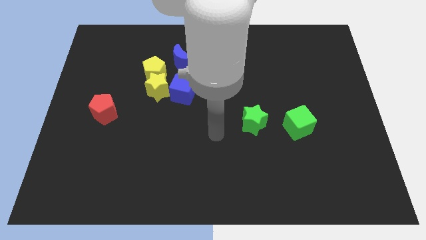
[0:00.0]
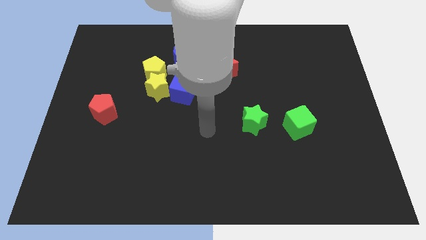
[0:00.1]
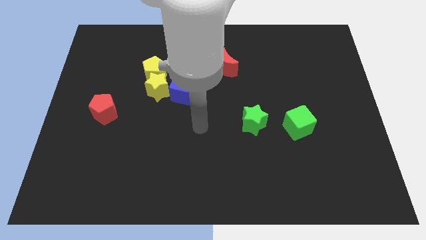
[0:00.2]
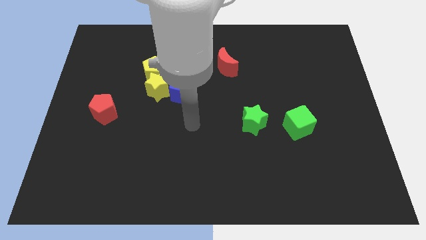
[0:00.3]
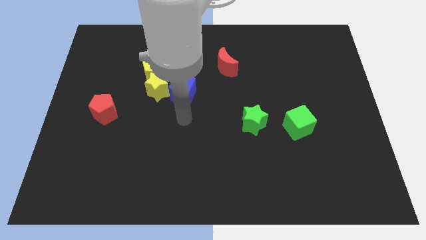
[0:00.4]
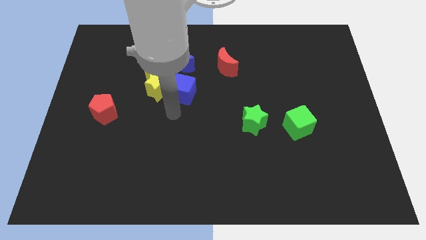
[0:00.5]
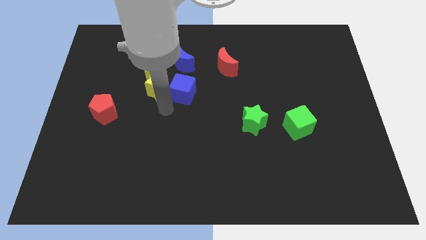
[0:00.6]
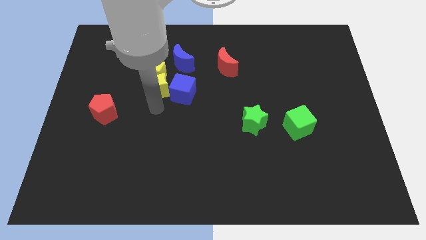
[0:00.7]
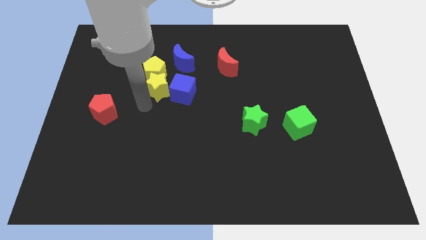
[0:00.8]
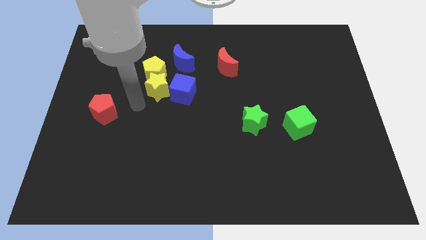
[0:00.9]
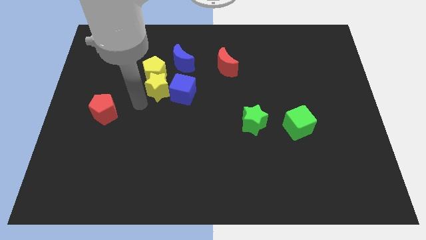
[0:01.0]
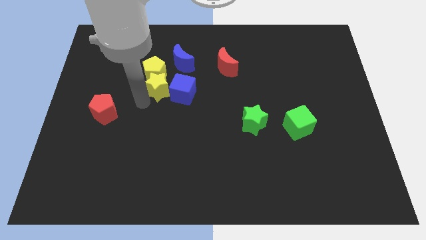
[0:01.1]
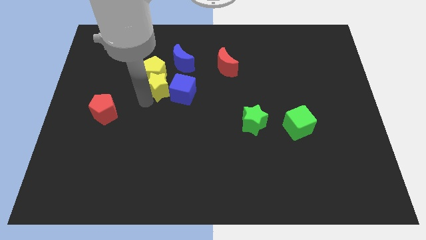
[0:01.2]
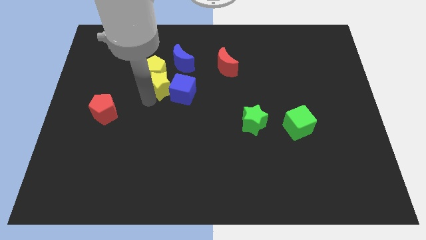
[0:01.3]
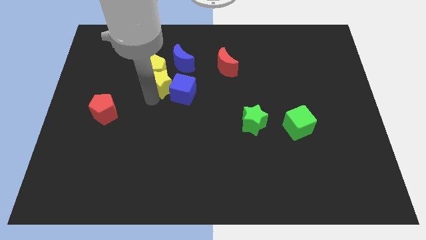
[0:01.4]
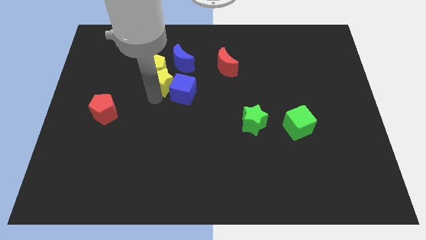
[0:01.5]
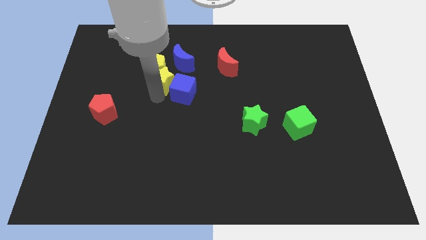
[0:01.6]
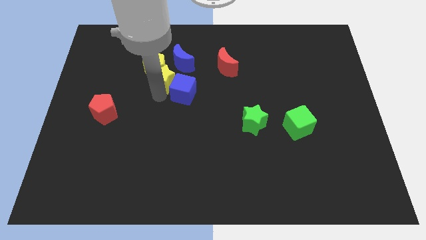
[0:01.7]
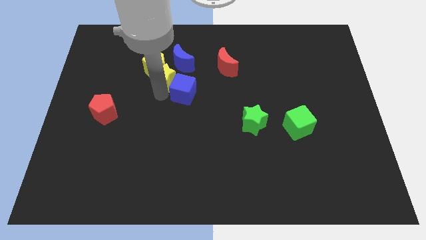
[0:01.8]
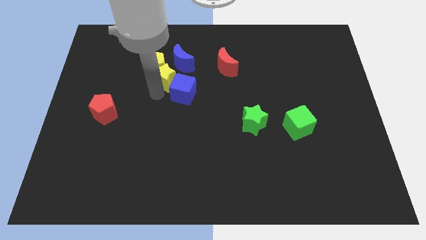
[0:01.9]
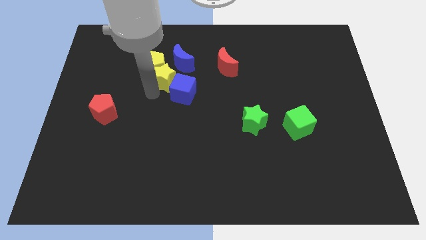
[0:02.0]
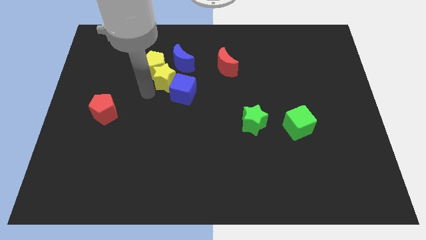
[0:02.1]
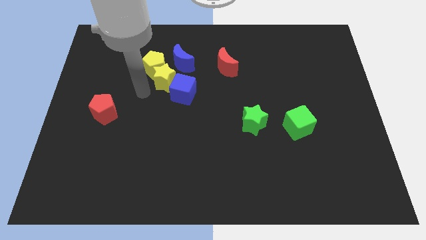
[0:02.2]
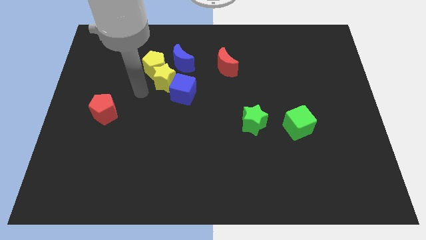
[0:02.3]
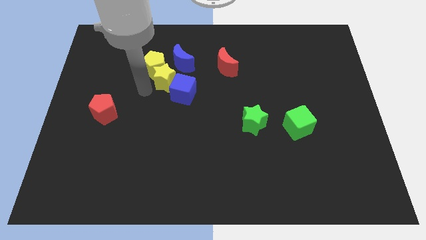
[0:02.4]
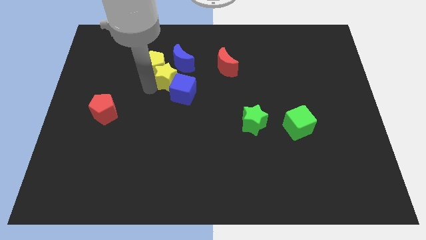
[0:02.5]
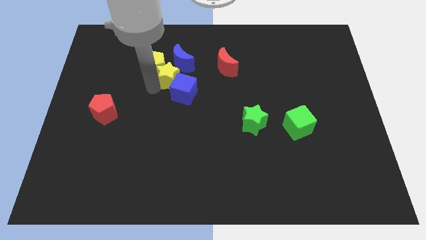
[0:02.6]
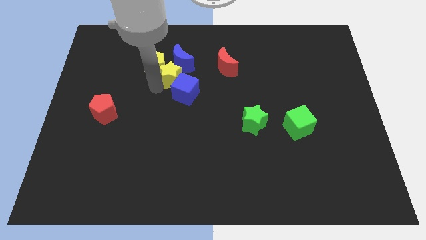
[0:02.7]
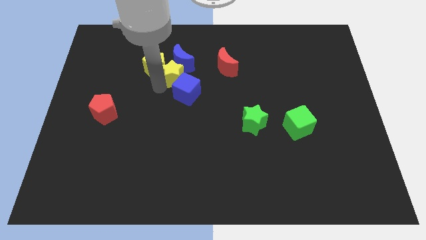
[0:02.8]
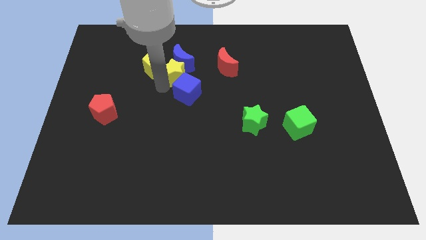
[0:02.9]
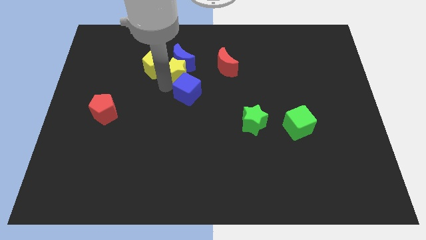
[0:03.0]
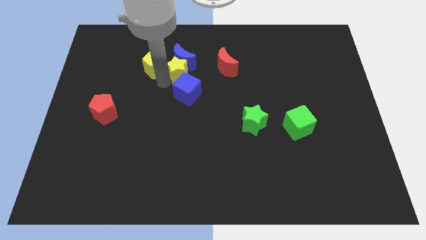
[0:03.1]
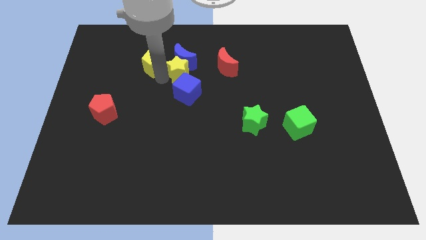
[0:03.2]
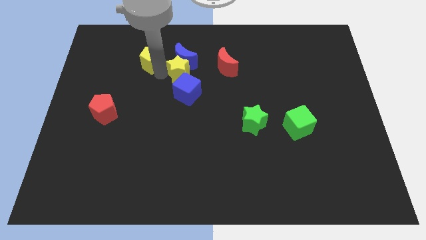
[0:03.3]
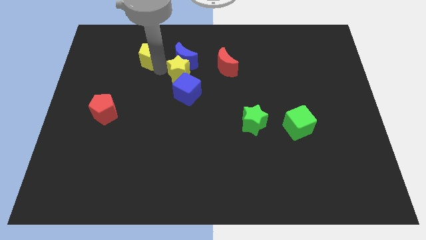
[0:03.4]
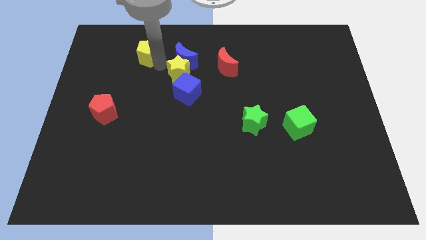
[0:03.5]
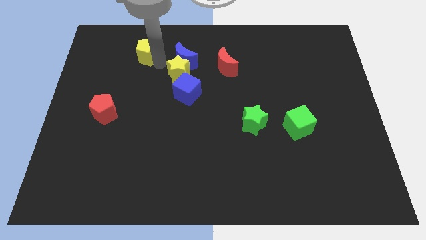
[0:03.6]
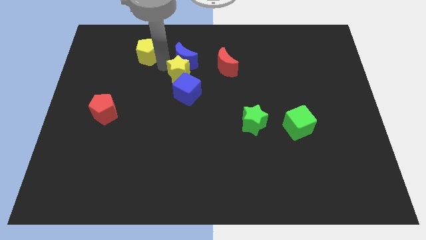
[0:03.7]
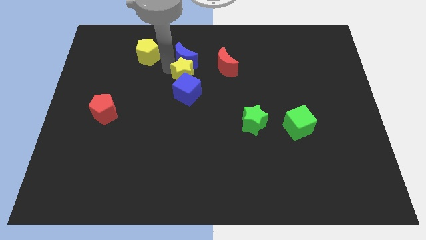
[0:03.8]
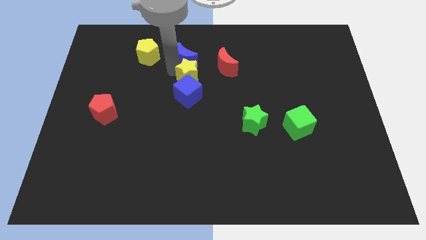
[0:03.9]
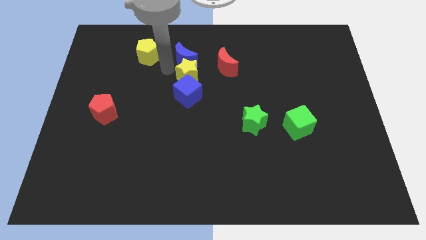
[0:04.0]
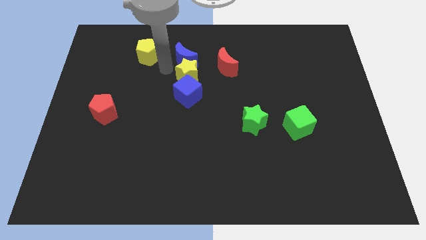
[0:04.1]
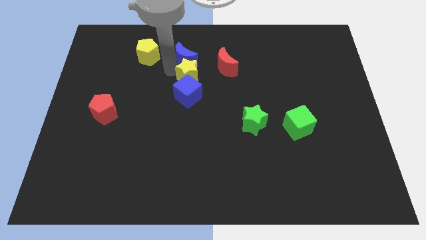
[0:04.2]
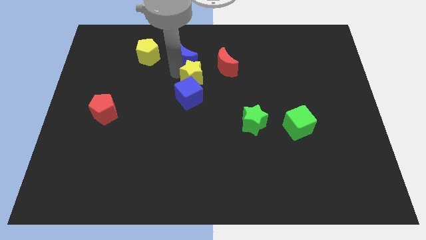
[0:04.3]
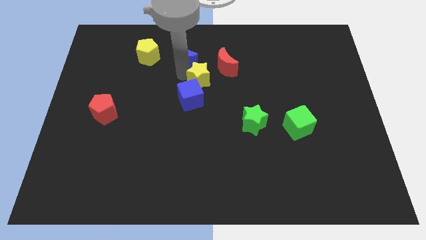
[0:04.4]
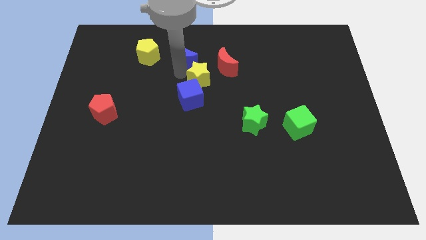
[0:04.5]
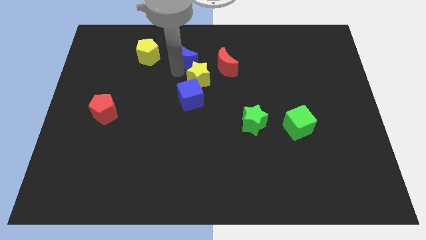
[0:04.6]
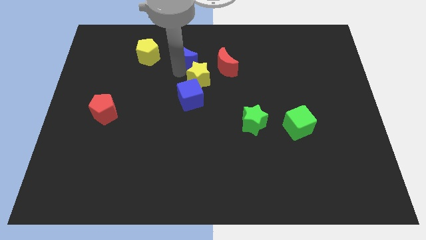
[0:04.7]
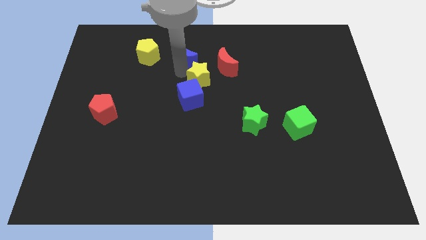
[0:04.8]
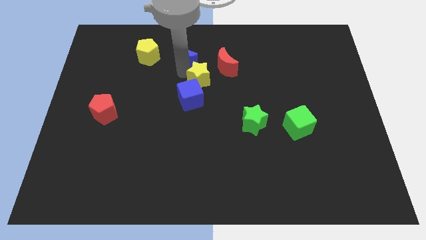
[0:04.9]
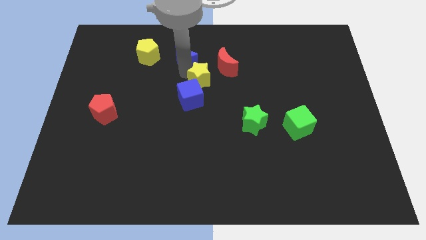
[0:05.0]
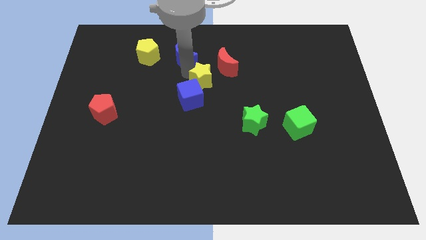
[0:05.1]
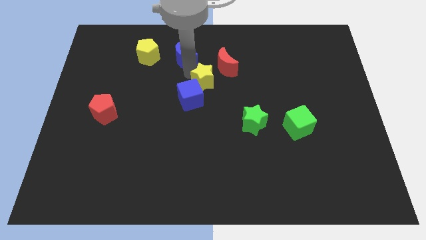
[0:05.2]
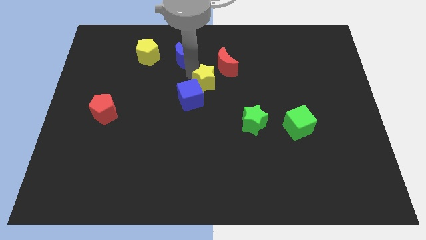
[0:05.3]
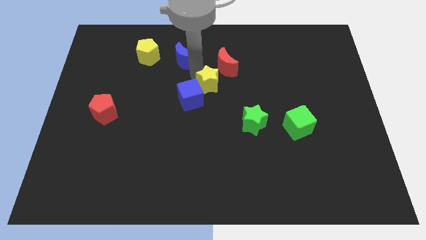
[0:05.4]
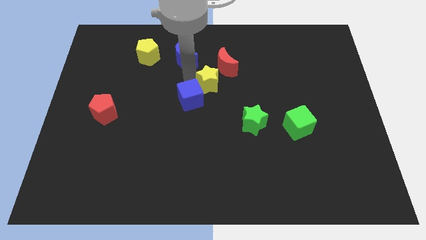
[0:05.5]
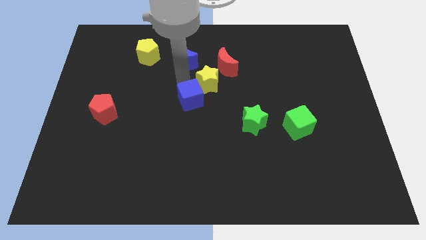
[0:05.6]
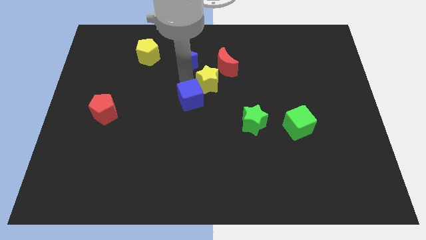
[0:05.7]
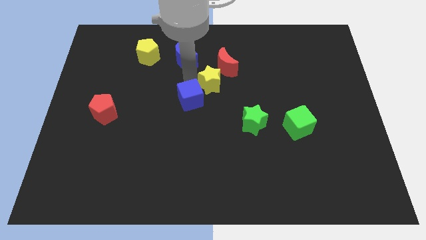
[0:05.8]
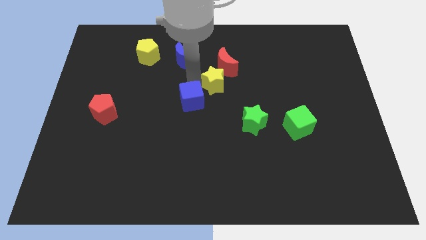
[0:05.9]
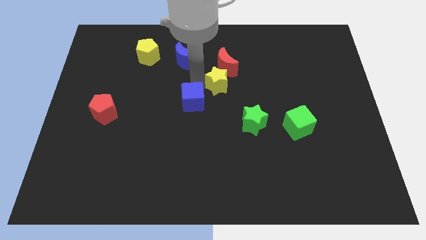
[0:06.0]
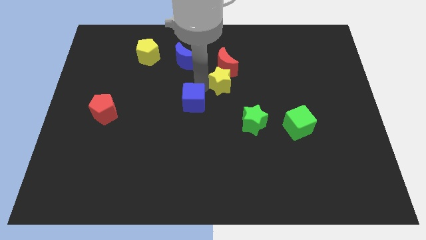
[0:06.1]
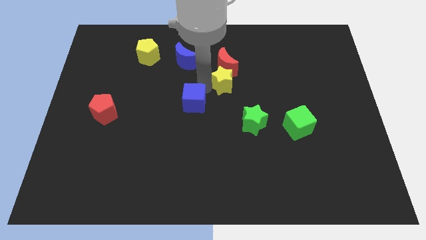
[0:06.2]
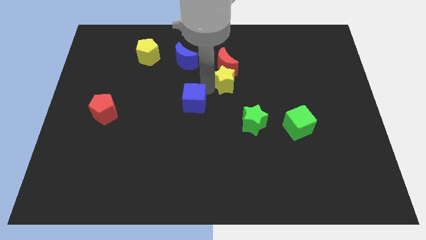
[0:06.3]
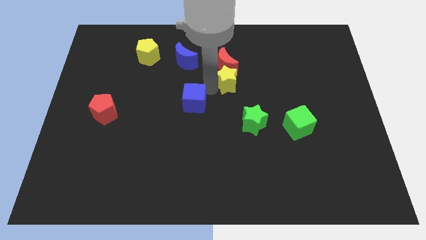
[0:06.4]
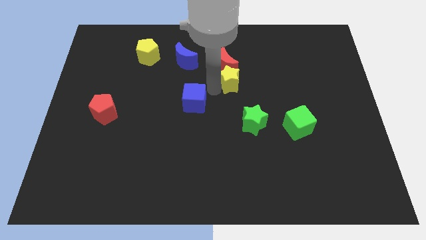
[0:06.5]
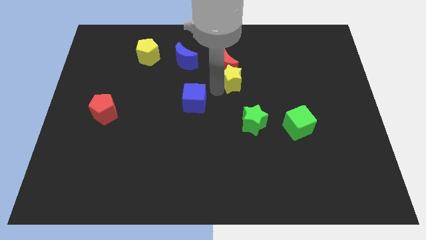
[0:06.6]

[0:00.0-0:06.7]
push the yellow star to the top of the green star
